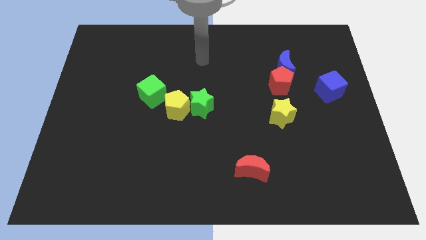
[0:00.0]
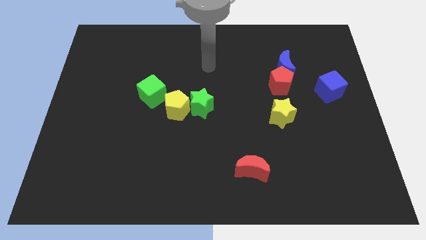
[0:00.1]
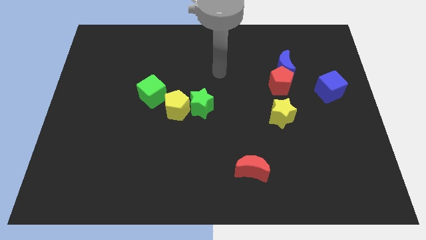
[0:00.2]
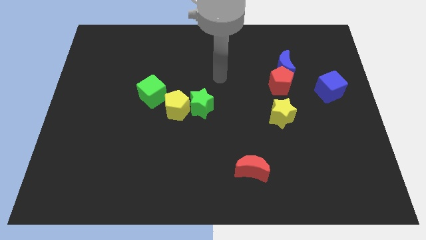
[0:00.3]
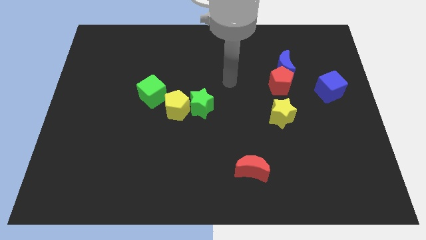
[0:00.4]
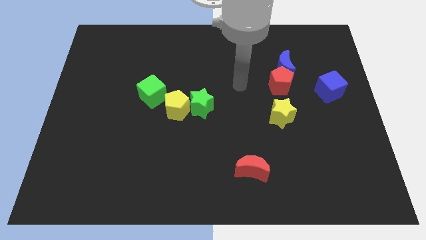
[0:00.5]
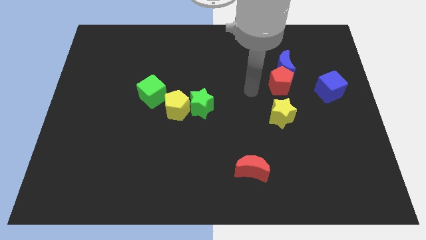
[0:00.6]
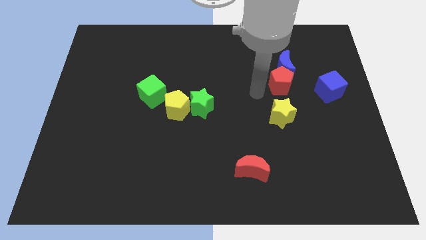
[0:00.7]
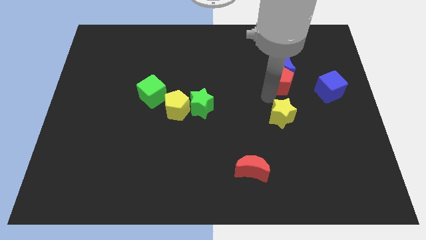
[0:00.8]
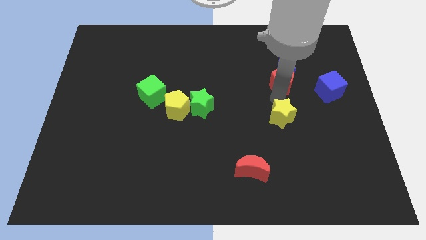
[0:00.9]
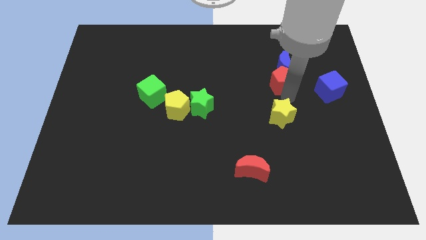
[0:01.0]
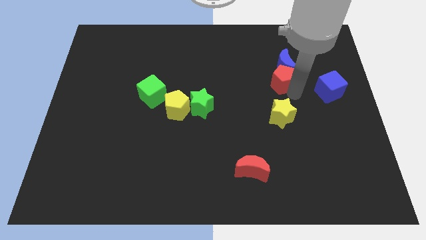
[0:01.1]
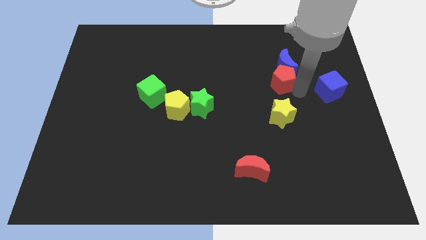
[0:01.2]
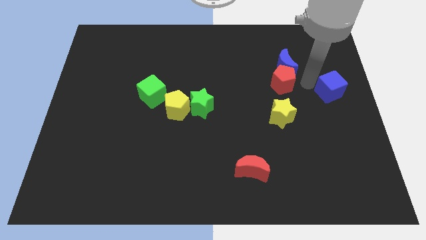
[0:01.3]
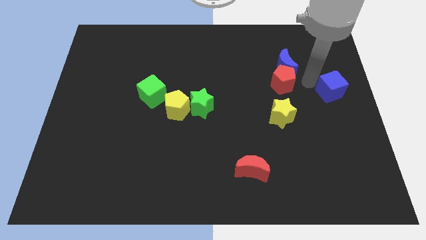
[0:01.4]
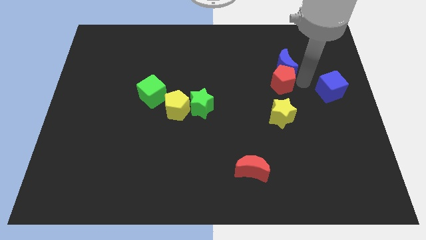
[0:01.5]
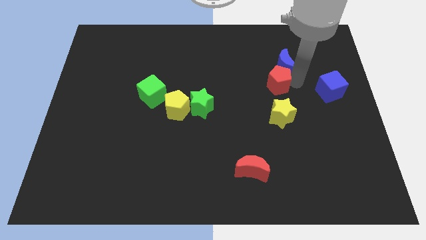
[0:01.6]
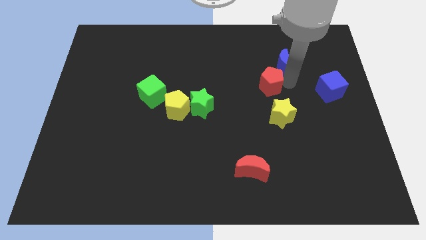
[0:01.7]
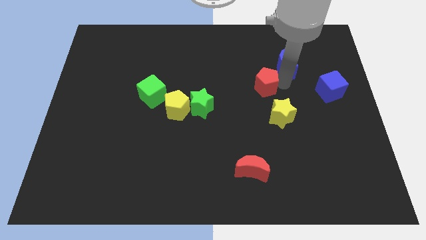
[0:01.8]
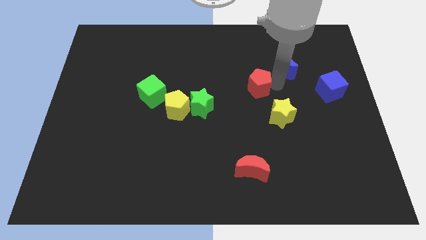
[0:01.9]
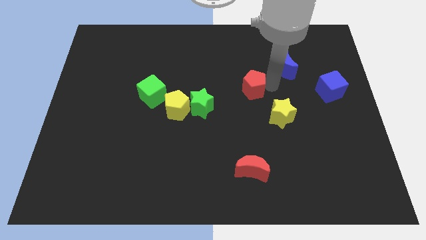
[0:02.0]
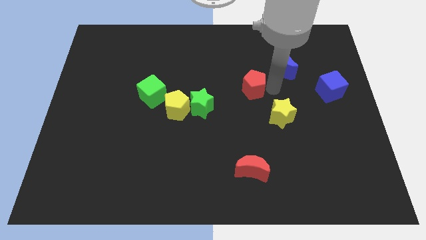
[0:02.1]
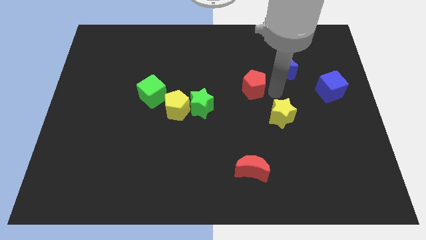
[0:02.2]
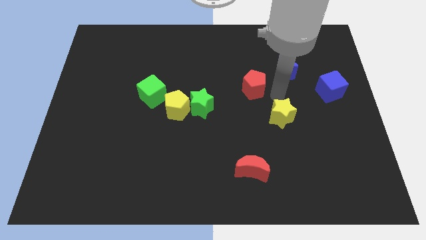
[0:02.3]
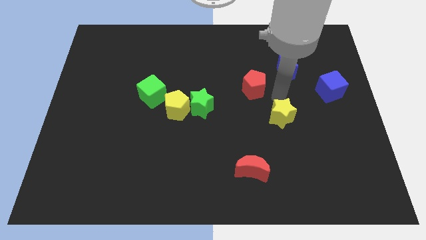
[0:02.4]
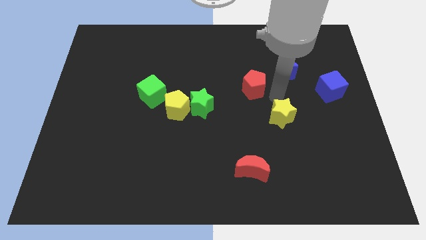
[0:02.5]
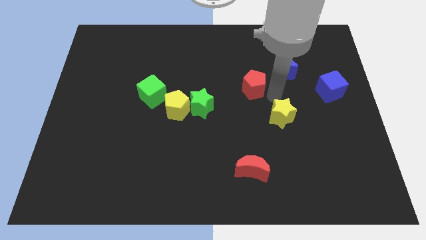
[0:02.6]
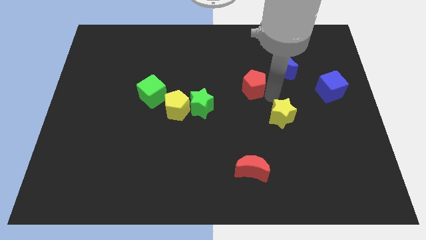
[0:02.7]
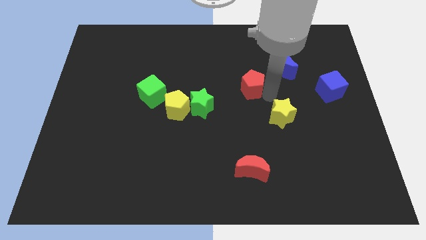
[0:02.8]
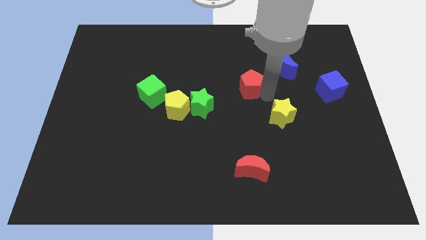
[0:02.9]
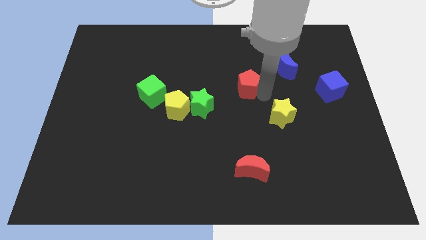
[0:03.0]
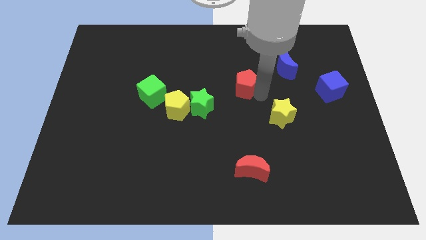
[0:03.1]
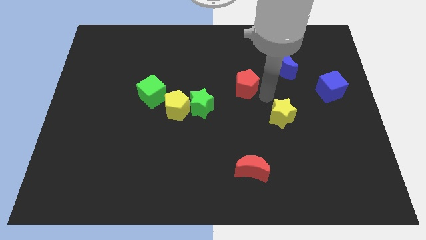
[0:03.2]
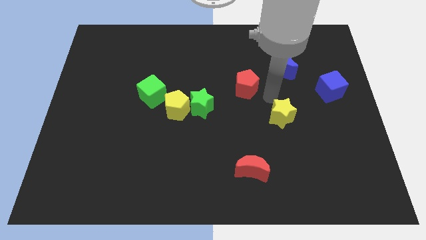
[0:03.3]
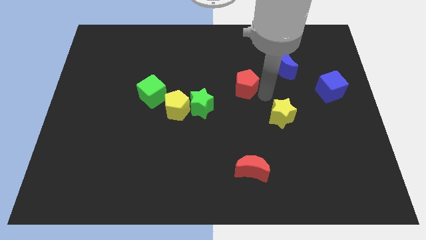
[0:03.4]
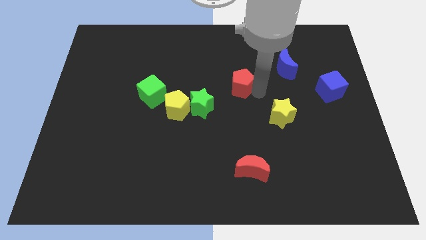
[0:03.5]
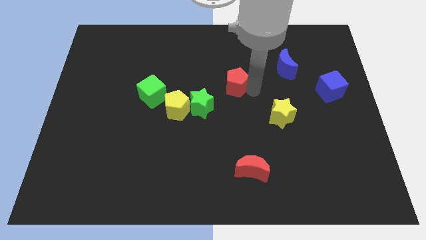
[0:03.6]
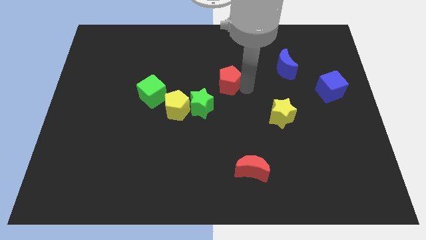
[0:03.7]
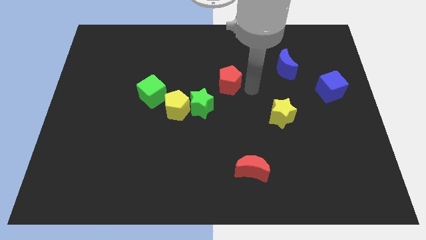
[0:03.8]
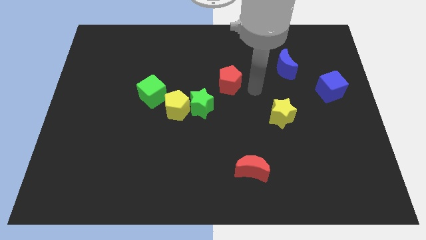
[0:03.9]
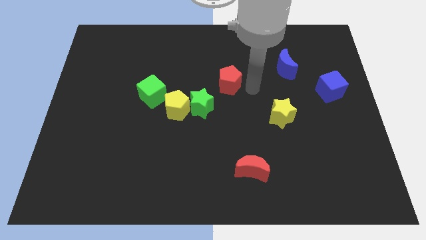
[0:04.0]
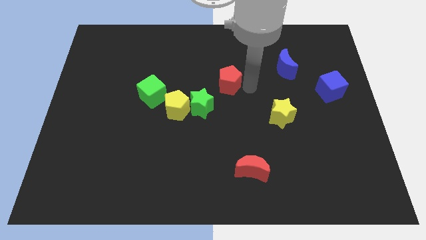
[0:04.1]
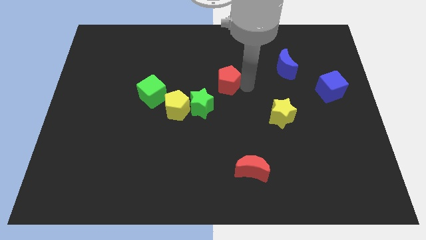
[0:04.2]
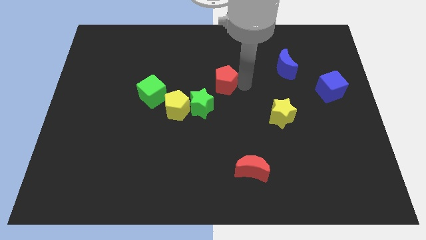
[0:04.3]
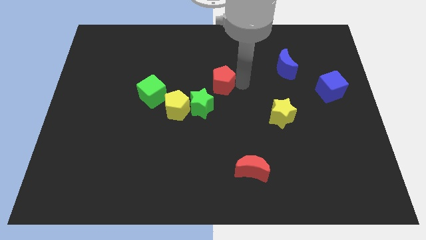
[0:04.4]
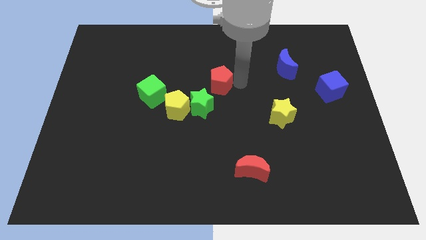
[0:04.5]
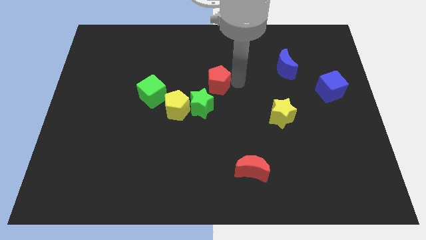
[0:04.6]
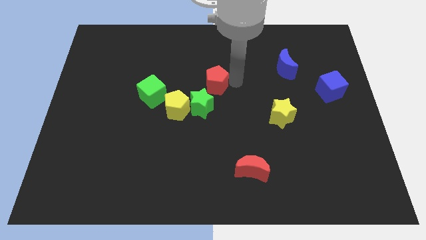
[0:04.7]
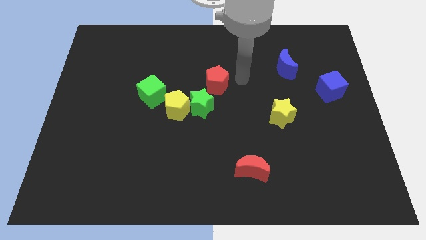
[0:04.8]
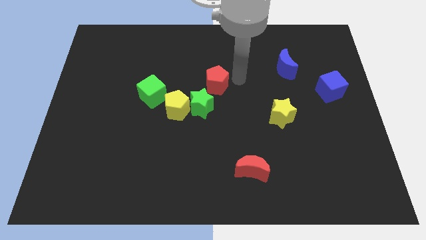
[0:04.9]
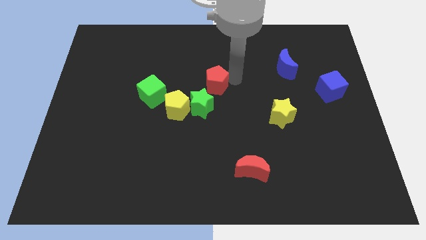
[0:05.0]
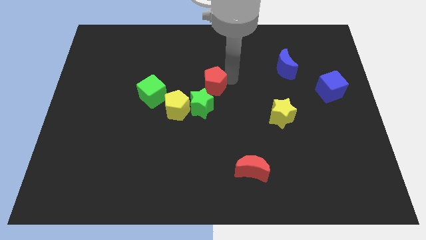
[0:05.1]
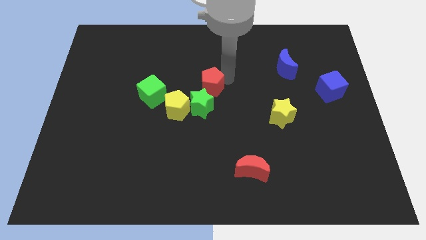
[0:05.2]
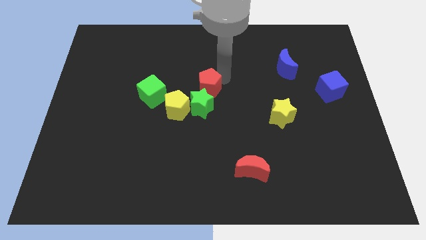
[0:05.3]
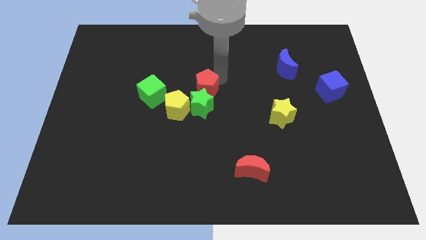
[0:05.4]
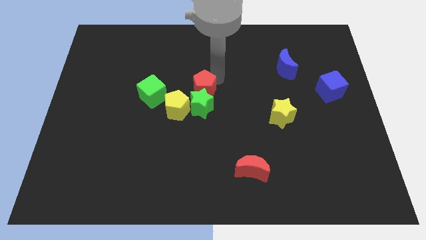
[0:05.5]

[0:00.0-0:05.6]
move the red pentagon to the top left of the green star

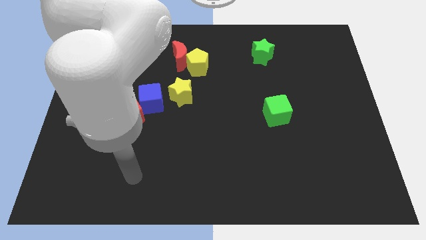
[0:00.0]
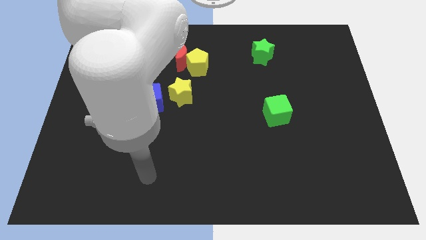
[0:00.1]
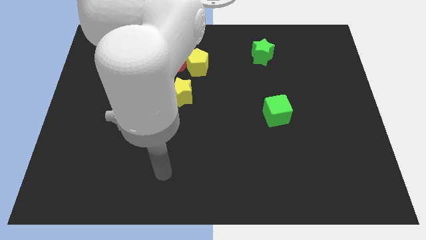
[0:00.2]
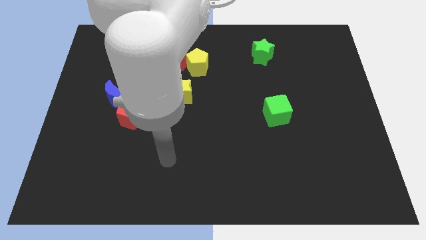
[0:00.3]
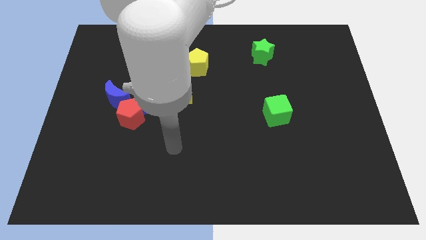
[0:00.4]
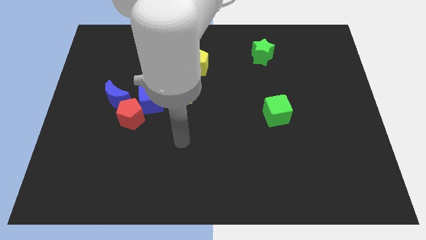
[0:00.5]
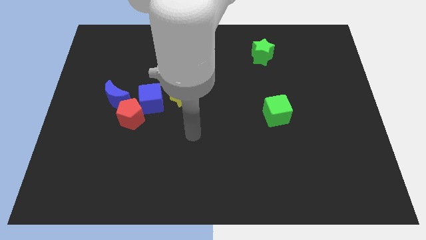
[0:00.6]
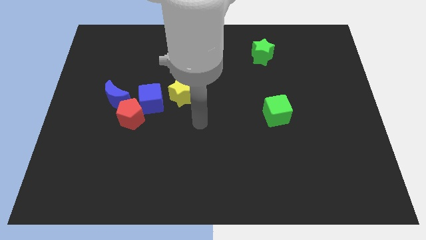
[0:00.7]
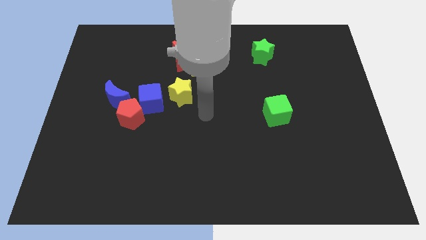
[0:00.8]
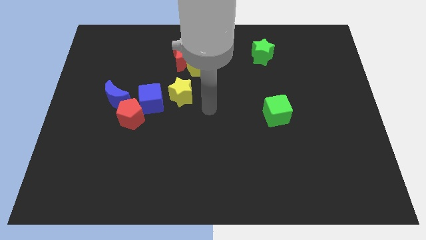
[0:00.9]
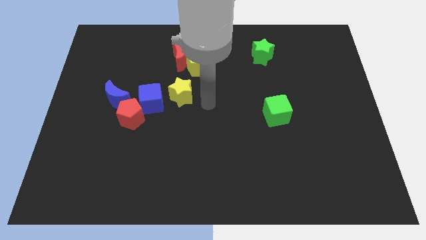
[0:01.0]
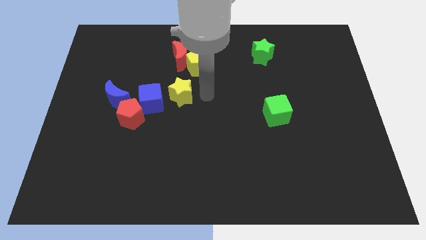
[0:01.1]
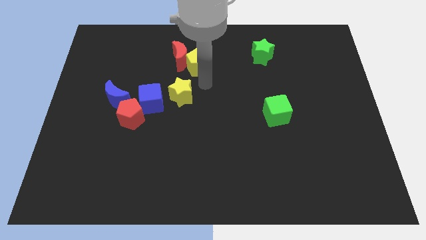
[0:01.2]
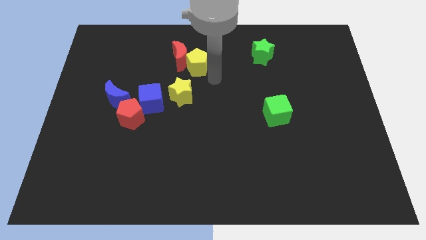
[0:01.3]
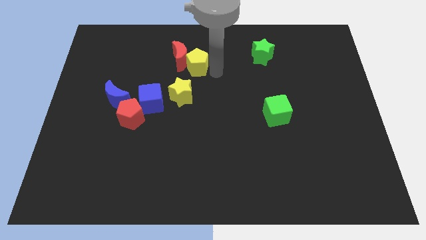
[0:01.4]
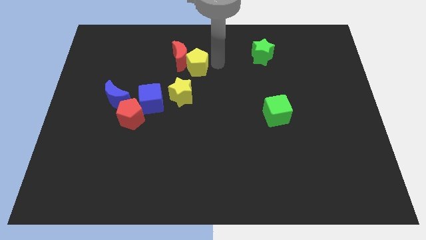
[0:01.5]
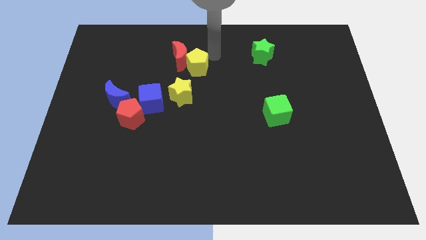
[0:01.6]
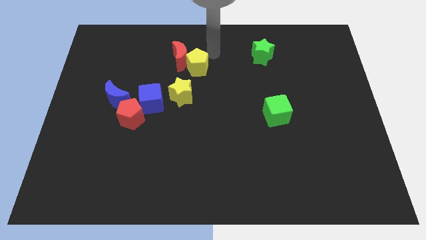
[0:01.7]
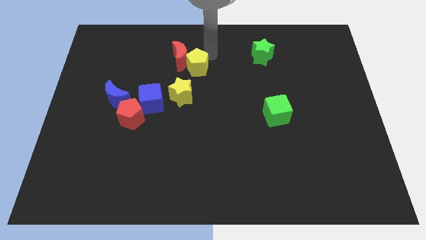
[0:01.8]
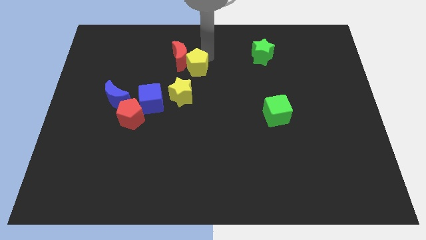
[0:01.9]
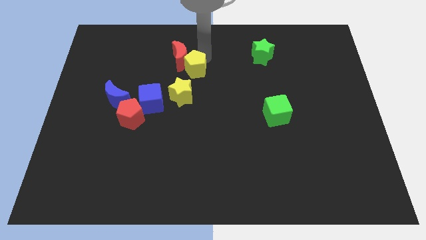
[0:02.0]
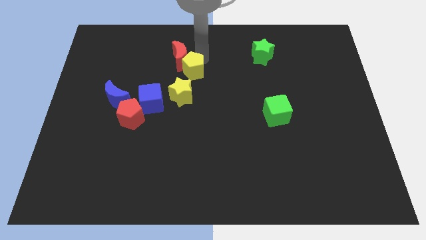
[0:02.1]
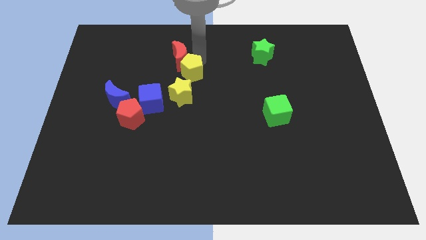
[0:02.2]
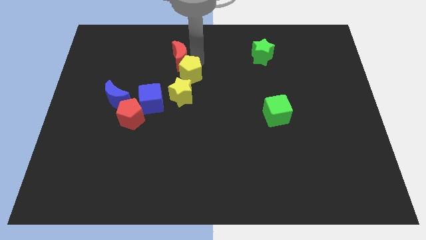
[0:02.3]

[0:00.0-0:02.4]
push the yellow pentagon diagonally up and to the right of the blue cube
